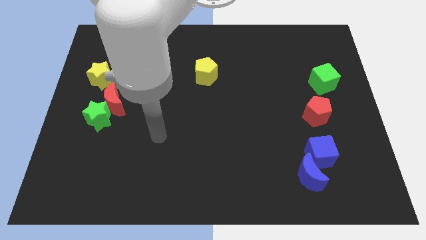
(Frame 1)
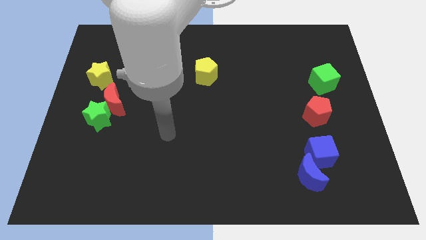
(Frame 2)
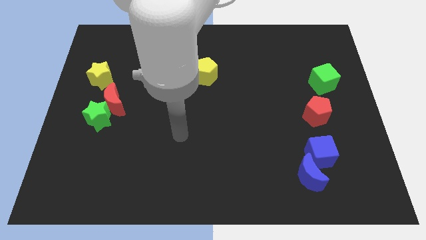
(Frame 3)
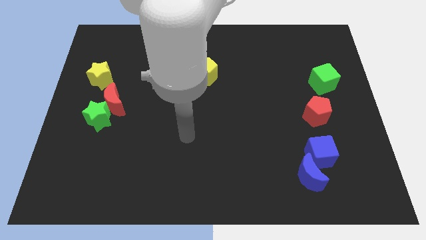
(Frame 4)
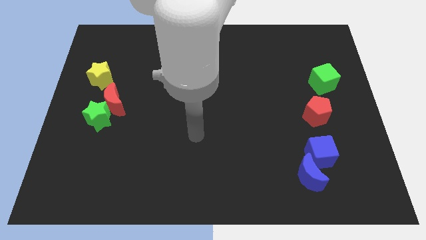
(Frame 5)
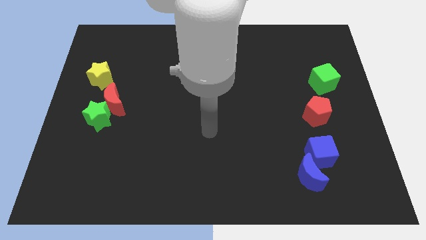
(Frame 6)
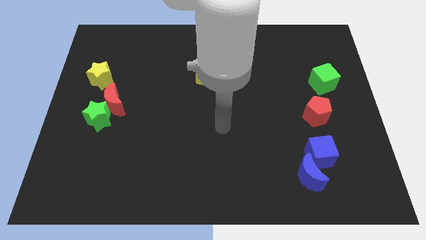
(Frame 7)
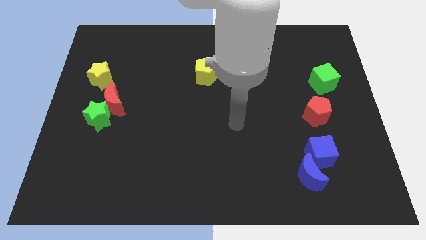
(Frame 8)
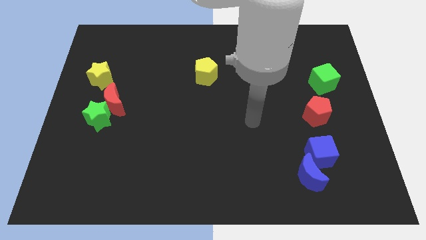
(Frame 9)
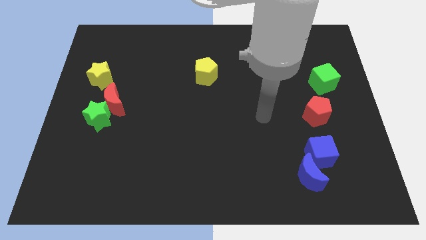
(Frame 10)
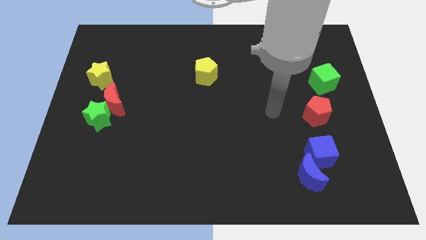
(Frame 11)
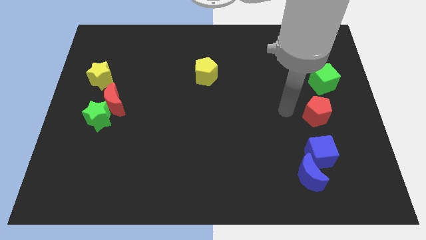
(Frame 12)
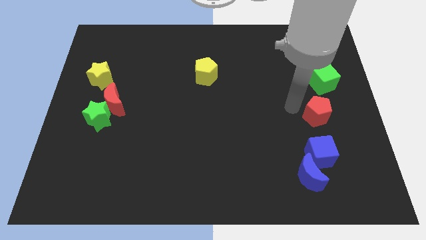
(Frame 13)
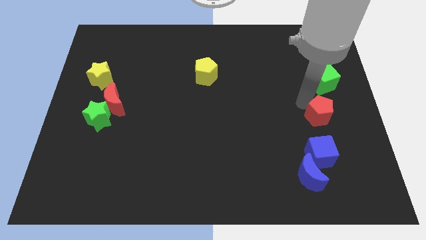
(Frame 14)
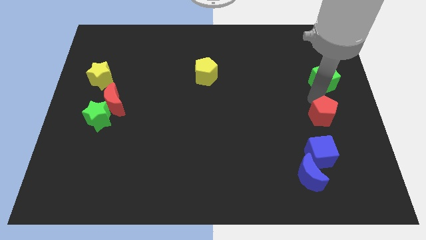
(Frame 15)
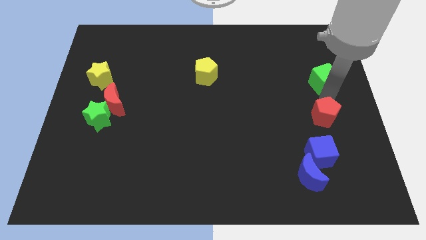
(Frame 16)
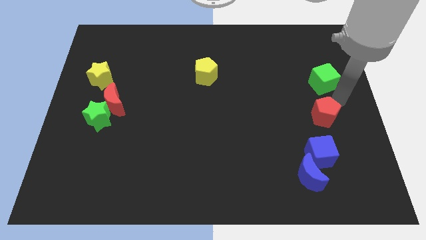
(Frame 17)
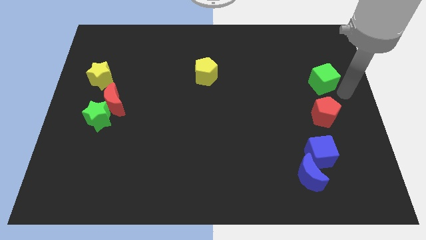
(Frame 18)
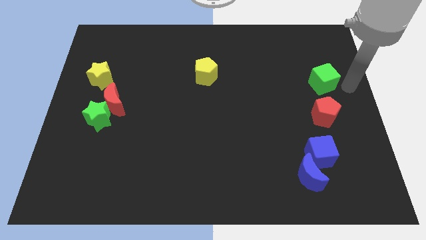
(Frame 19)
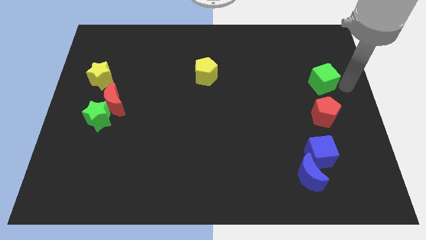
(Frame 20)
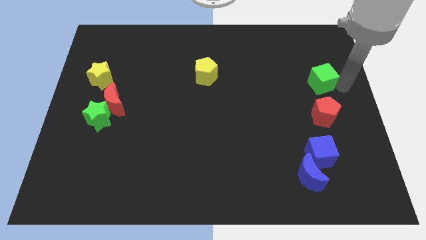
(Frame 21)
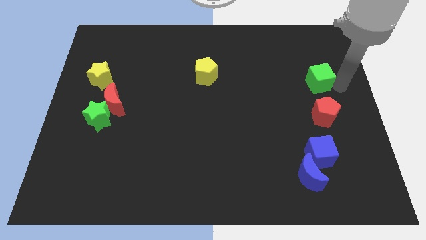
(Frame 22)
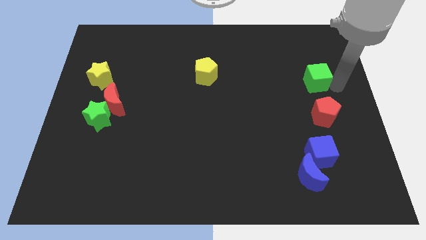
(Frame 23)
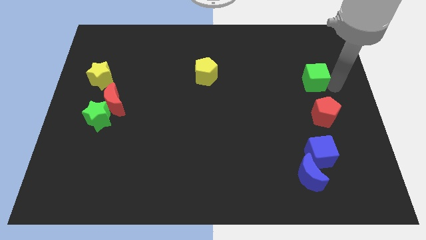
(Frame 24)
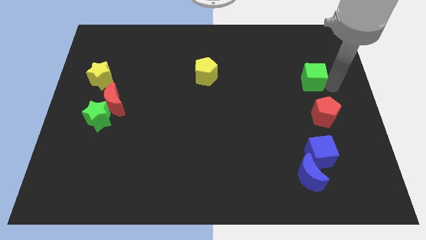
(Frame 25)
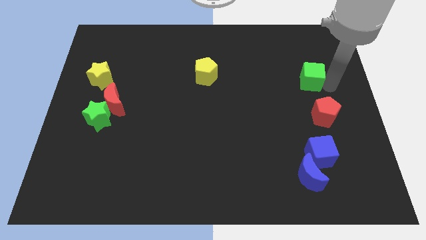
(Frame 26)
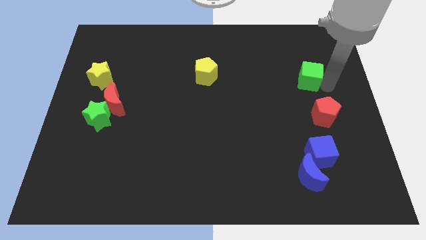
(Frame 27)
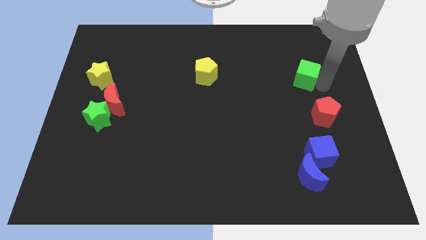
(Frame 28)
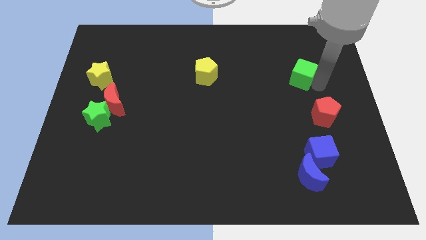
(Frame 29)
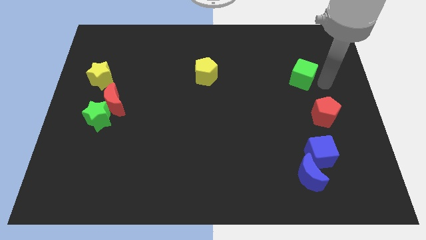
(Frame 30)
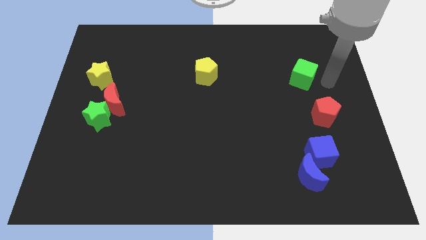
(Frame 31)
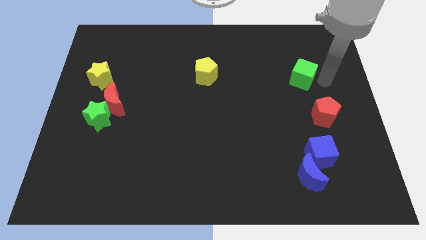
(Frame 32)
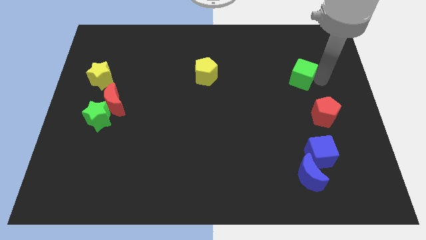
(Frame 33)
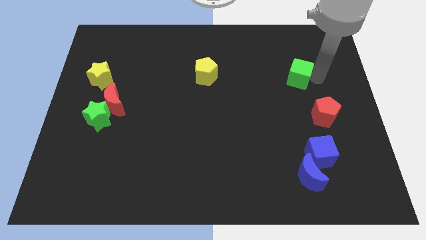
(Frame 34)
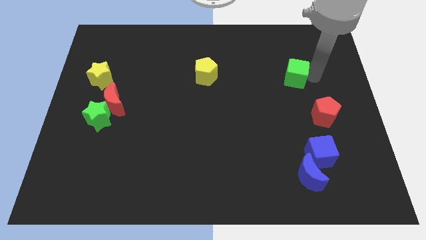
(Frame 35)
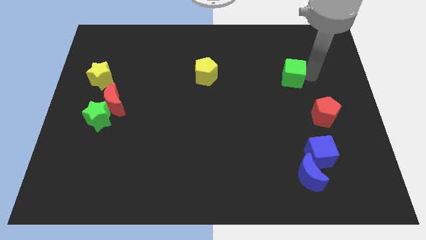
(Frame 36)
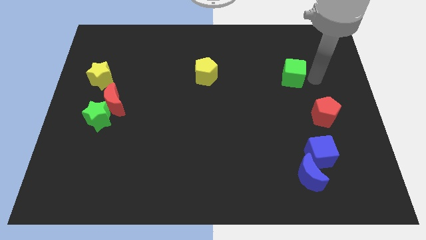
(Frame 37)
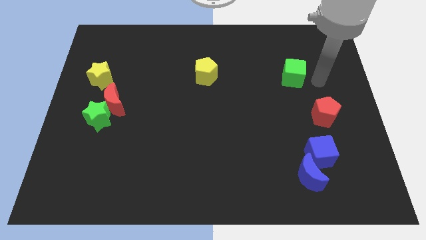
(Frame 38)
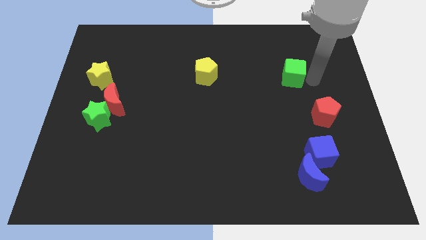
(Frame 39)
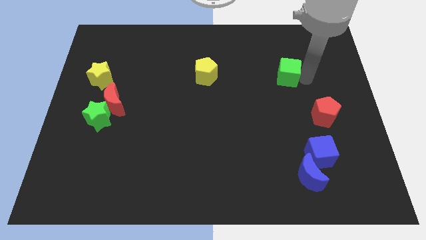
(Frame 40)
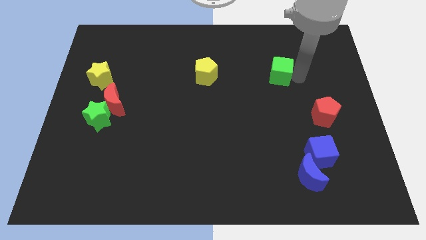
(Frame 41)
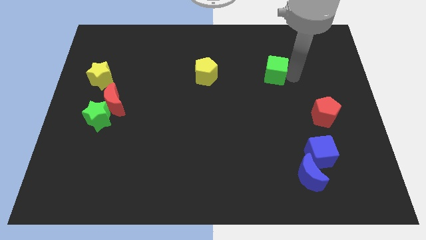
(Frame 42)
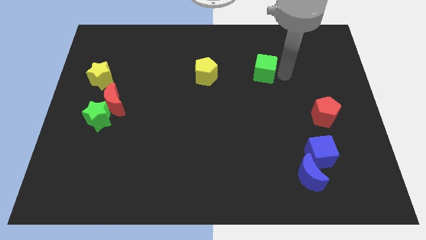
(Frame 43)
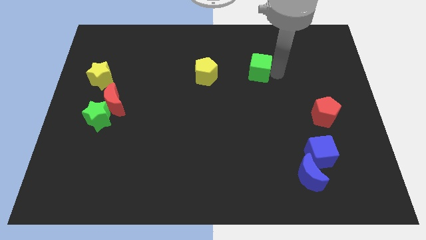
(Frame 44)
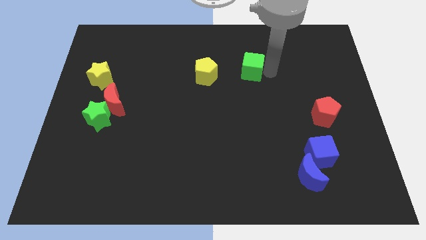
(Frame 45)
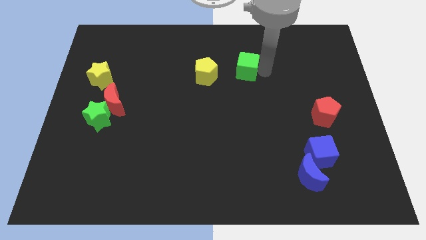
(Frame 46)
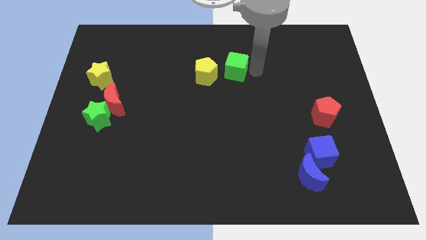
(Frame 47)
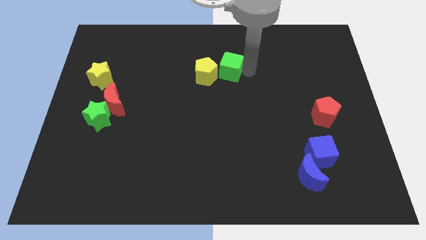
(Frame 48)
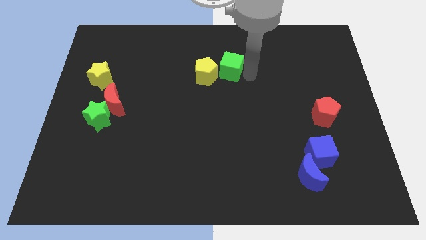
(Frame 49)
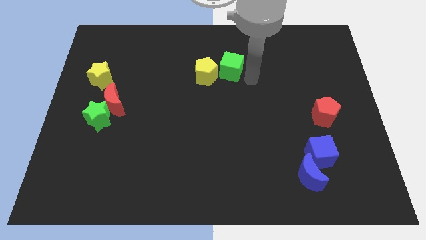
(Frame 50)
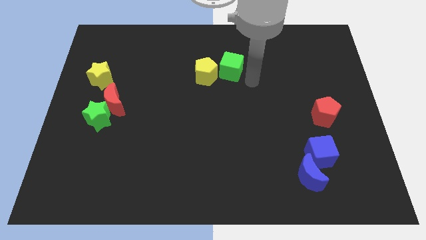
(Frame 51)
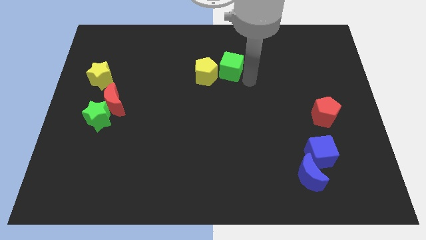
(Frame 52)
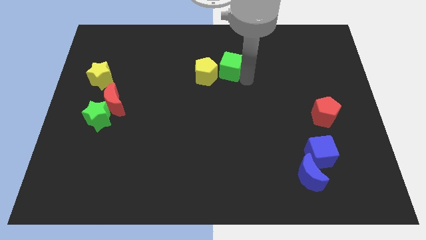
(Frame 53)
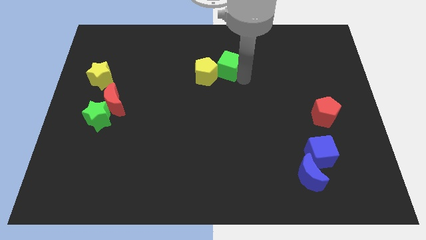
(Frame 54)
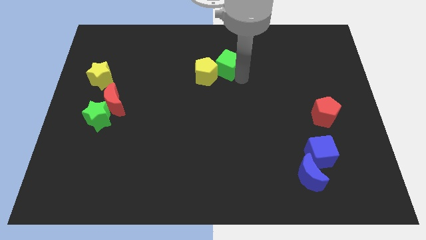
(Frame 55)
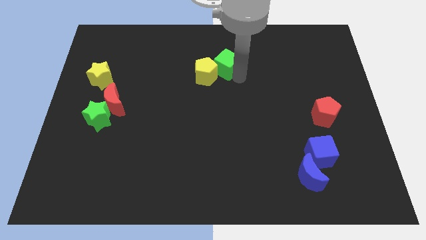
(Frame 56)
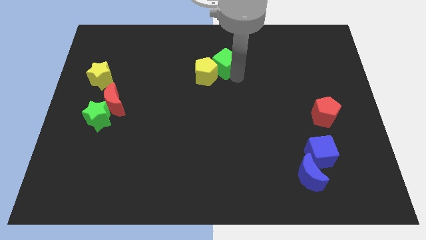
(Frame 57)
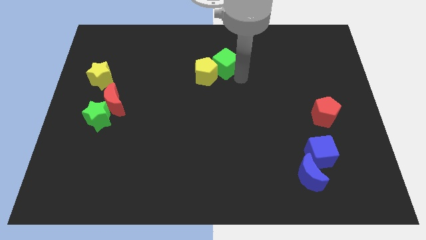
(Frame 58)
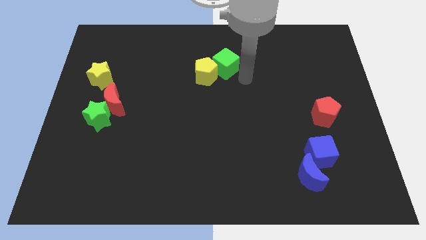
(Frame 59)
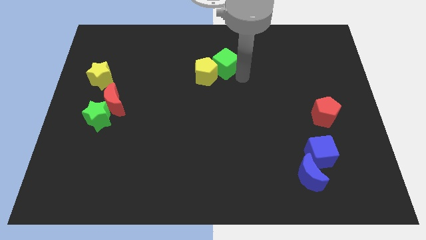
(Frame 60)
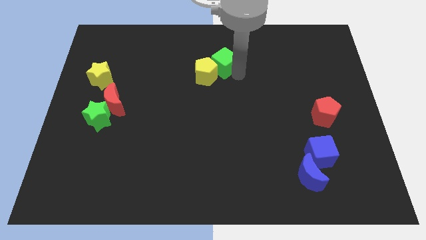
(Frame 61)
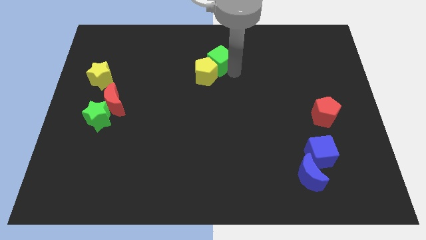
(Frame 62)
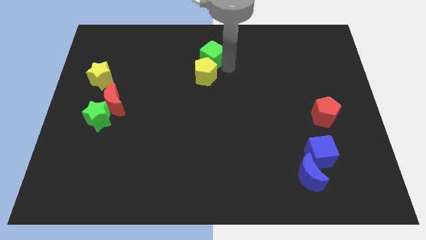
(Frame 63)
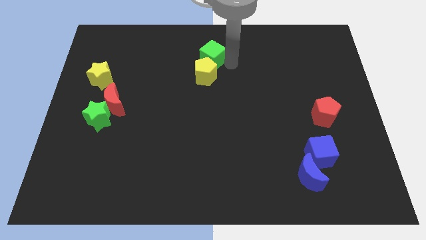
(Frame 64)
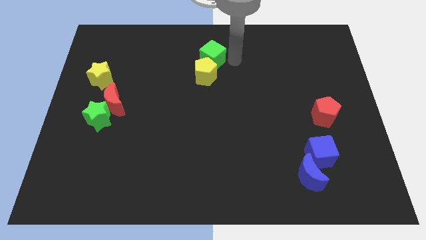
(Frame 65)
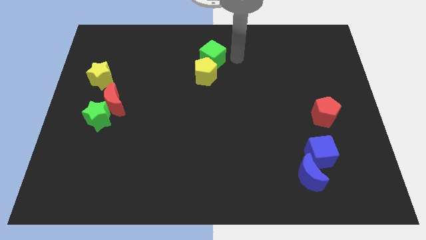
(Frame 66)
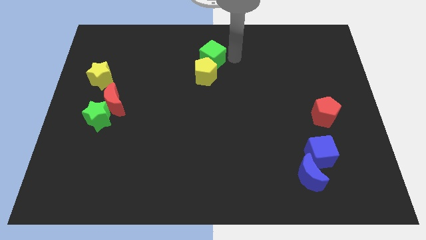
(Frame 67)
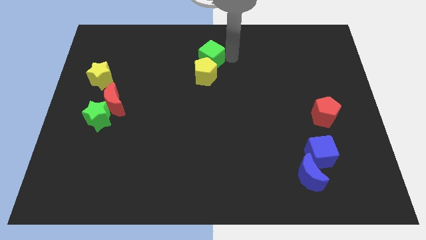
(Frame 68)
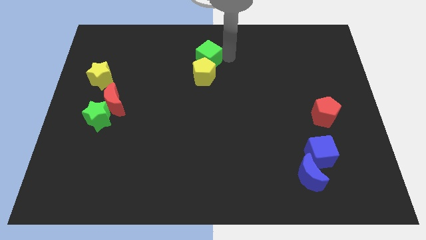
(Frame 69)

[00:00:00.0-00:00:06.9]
slide the green cube to the top left of the yellow pentagon
